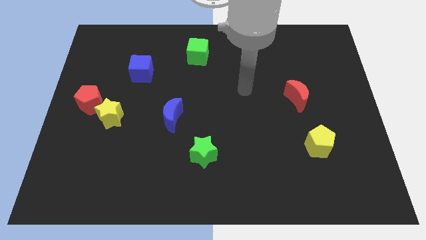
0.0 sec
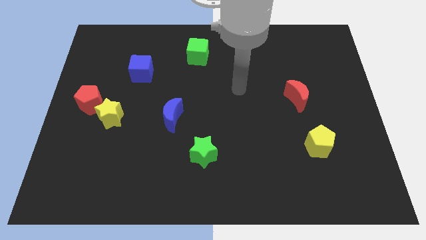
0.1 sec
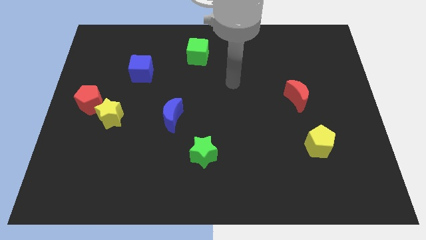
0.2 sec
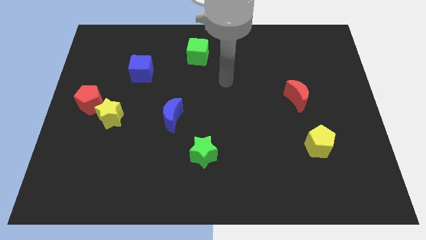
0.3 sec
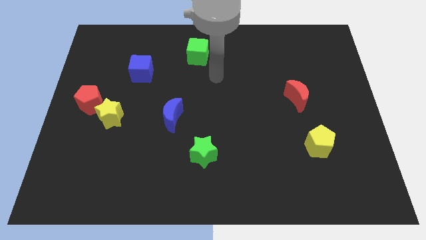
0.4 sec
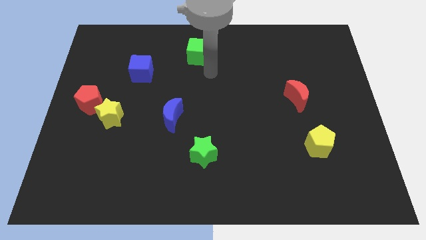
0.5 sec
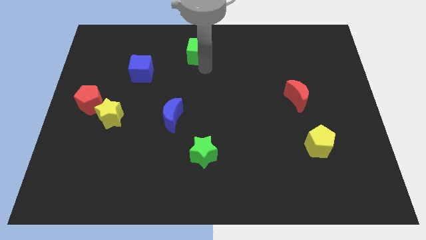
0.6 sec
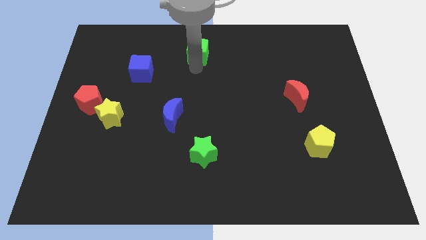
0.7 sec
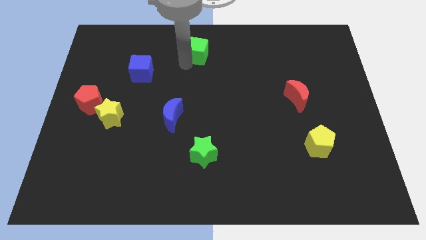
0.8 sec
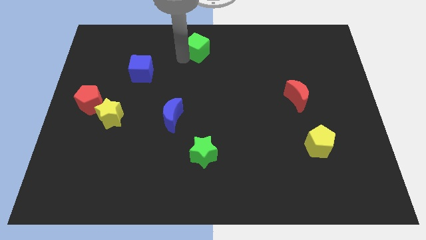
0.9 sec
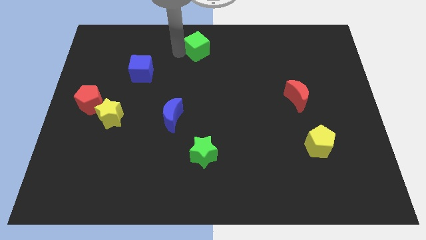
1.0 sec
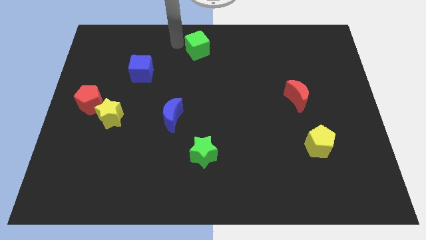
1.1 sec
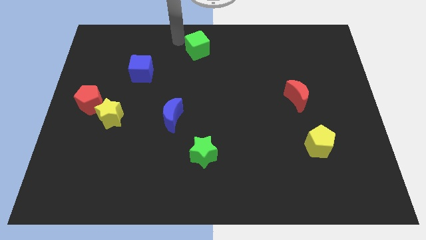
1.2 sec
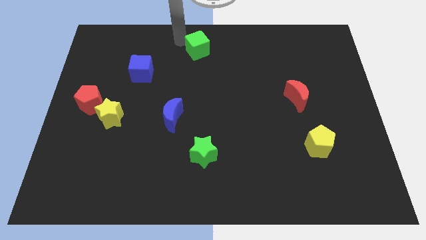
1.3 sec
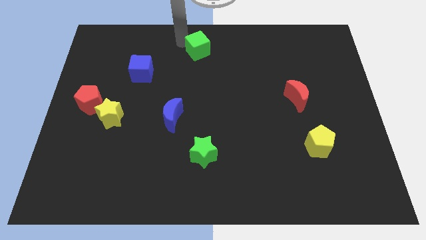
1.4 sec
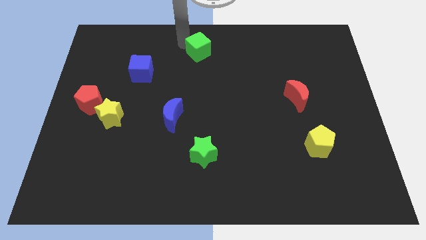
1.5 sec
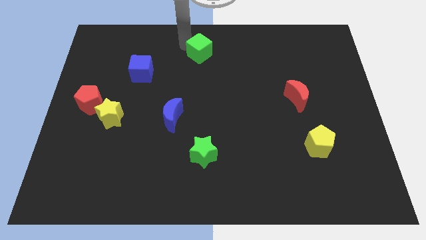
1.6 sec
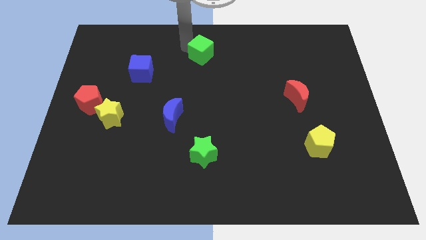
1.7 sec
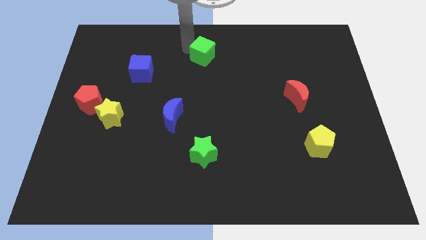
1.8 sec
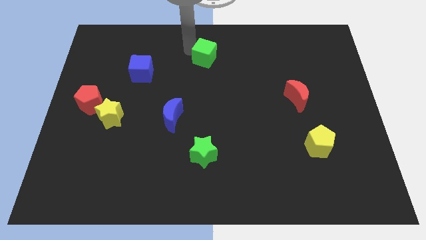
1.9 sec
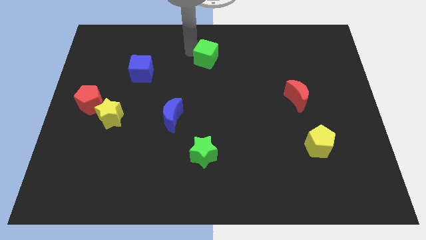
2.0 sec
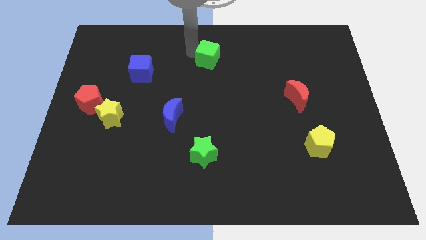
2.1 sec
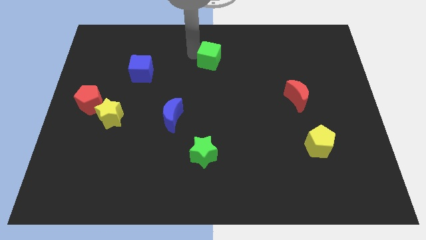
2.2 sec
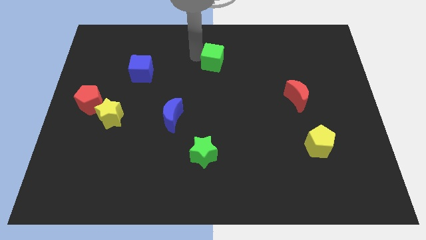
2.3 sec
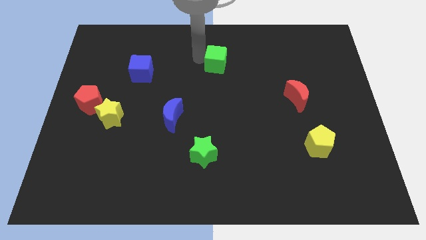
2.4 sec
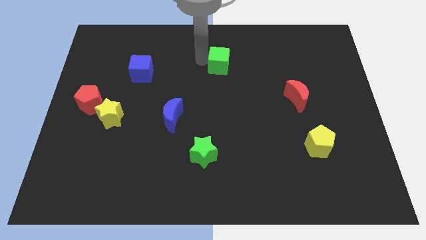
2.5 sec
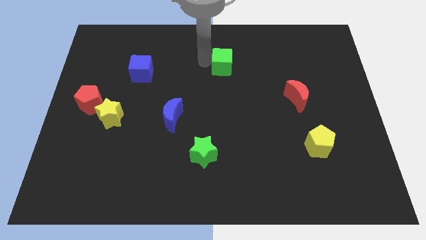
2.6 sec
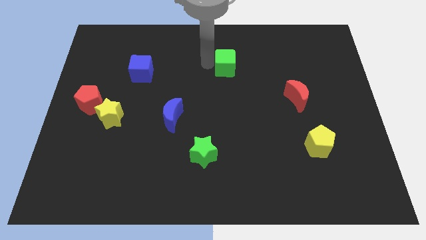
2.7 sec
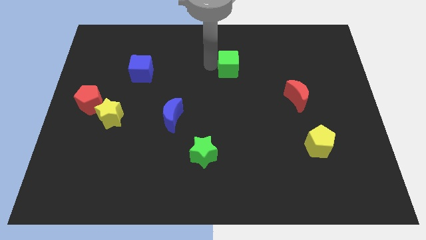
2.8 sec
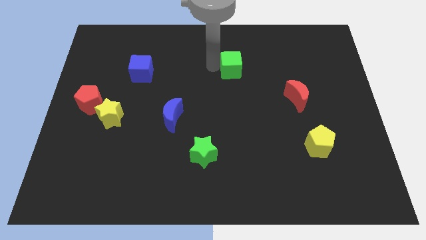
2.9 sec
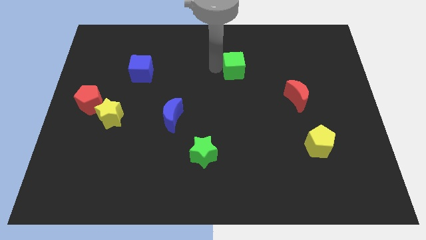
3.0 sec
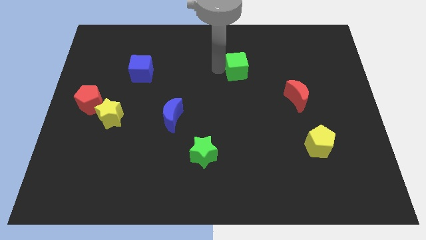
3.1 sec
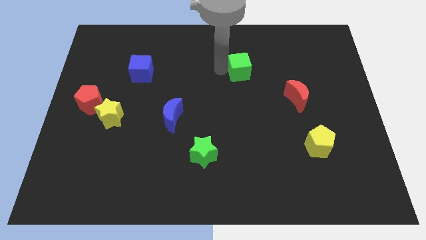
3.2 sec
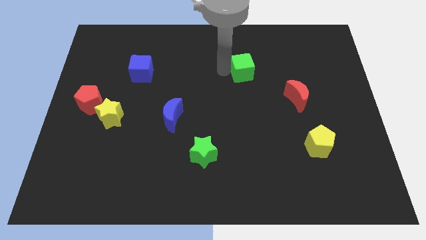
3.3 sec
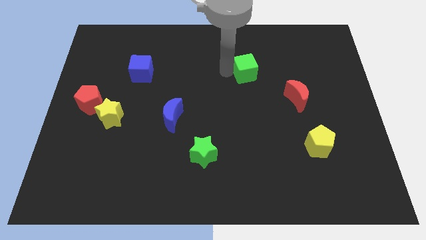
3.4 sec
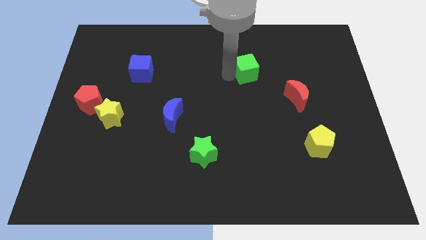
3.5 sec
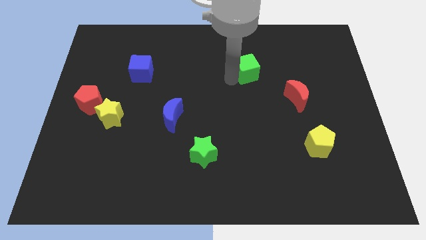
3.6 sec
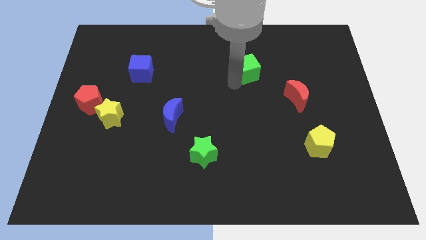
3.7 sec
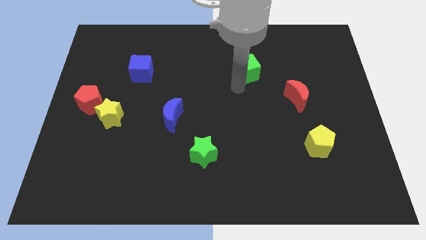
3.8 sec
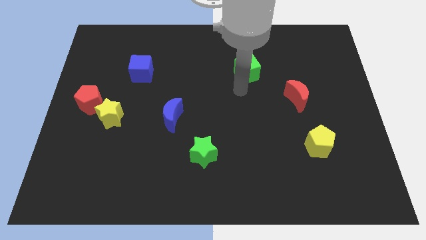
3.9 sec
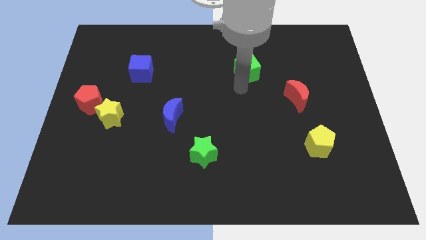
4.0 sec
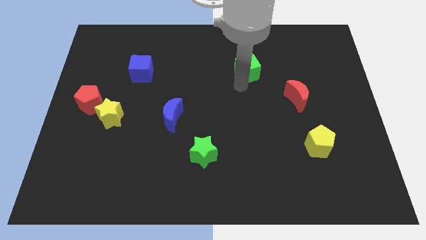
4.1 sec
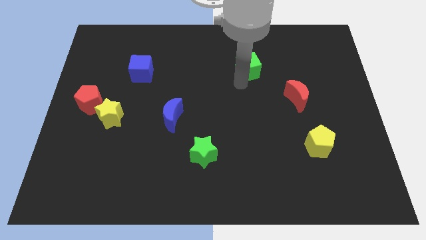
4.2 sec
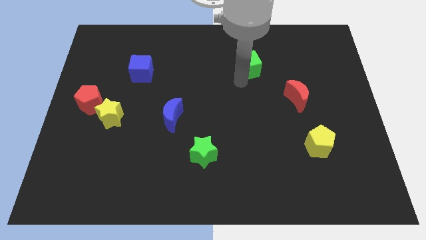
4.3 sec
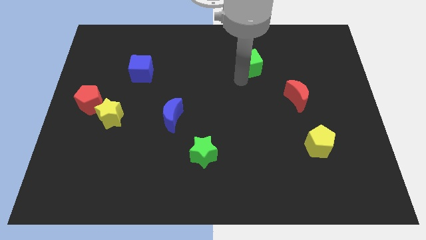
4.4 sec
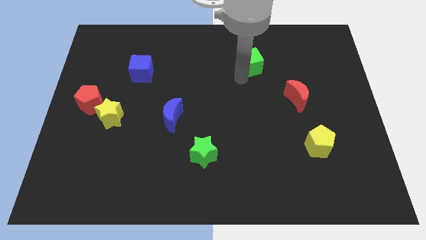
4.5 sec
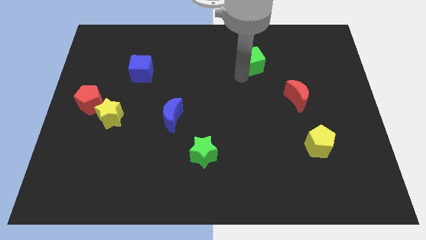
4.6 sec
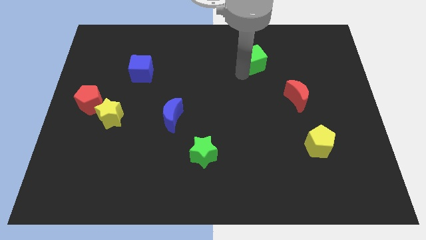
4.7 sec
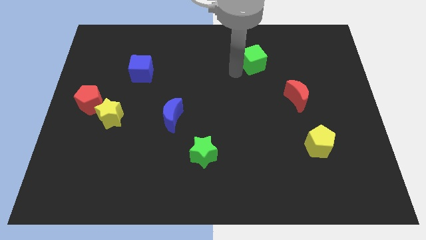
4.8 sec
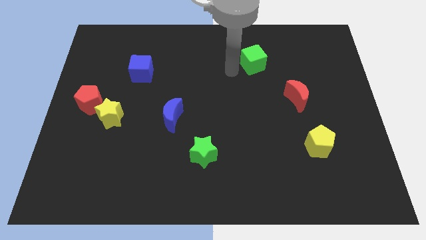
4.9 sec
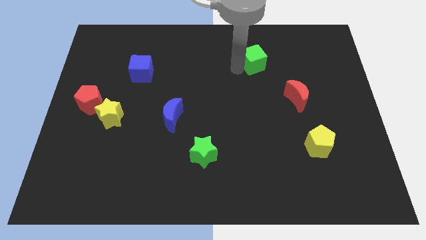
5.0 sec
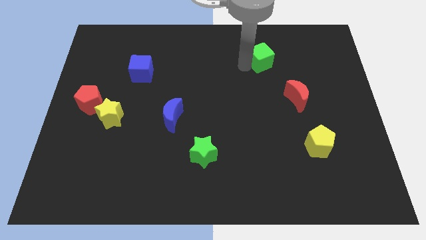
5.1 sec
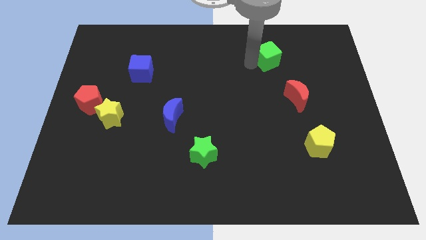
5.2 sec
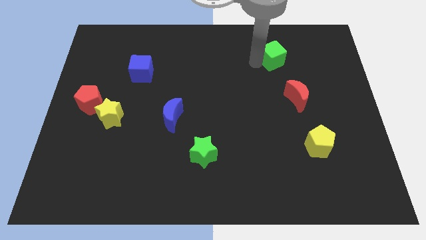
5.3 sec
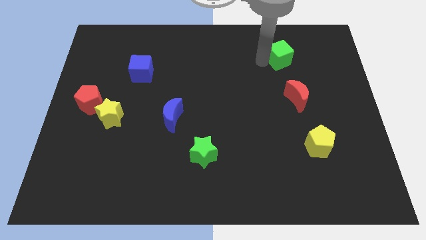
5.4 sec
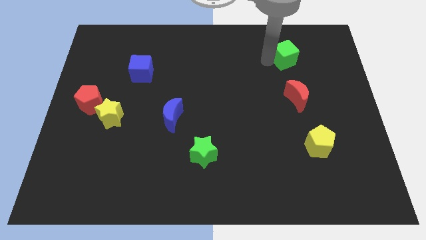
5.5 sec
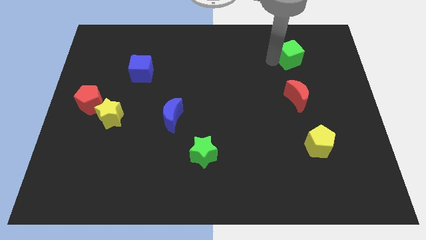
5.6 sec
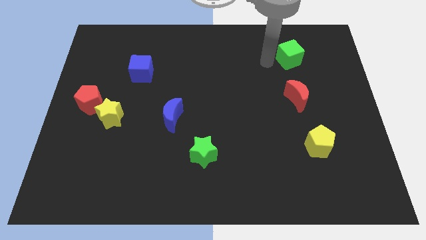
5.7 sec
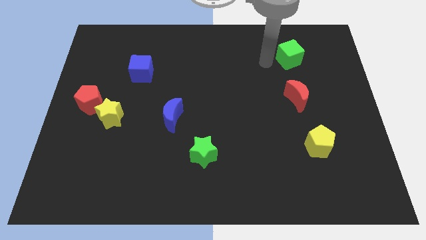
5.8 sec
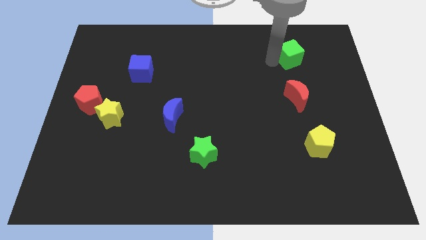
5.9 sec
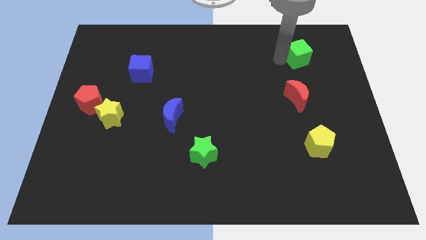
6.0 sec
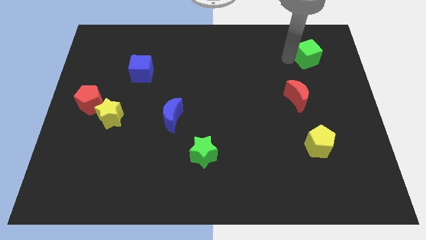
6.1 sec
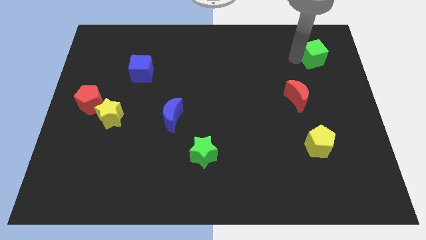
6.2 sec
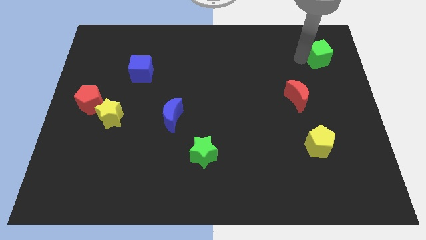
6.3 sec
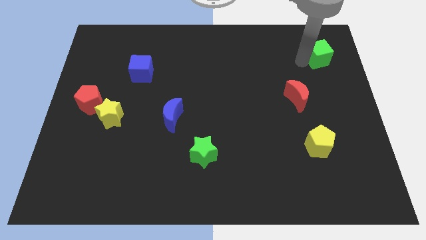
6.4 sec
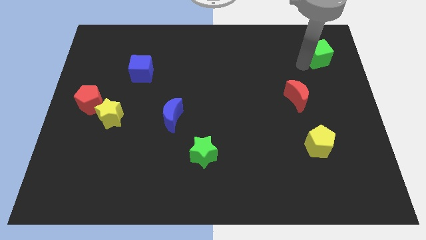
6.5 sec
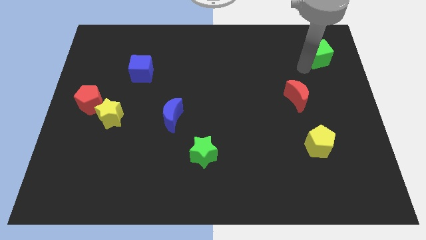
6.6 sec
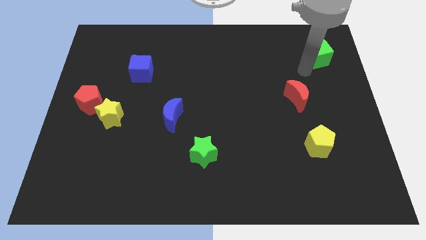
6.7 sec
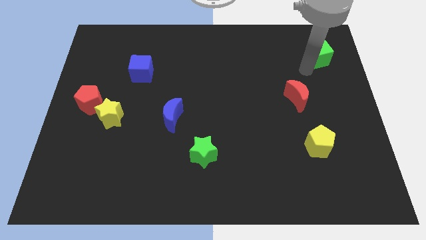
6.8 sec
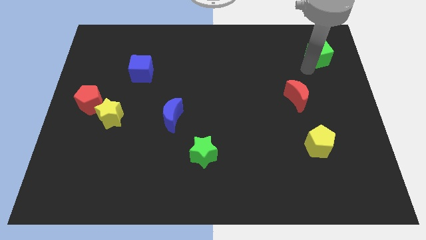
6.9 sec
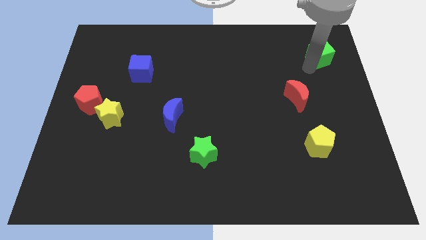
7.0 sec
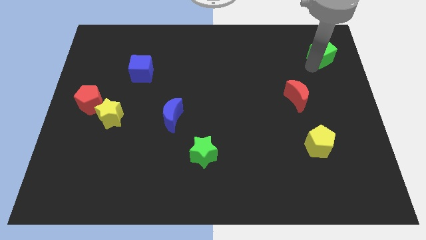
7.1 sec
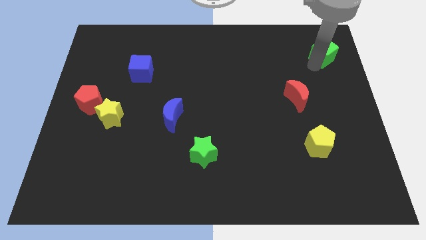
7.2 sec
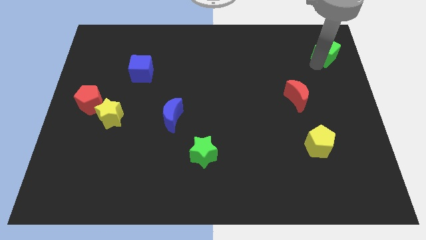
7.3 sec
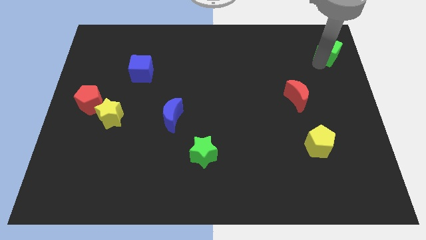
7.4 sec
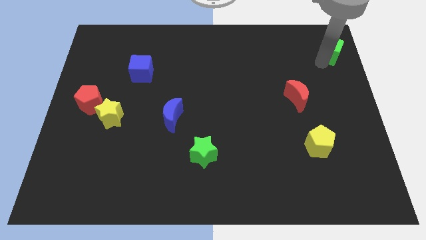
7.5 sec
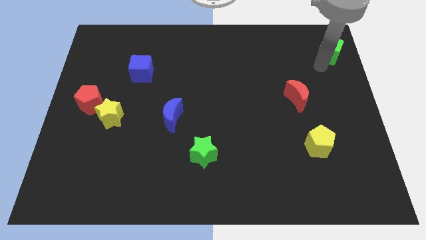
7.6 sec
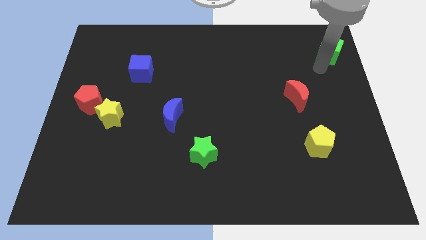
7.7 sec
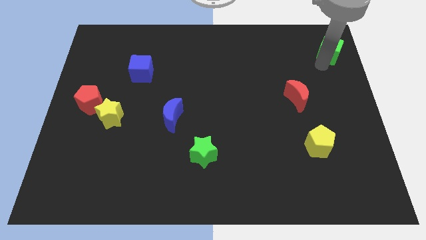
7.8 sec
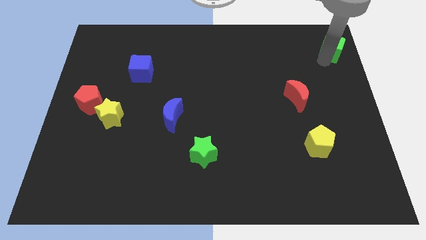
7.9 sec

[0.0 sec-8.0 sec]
push the green cube to the top right corner
